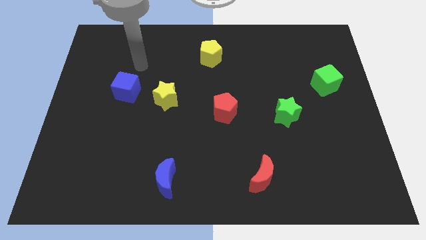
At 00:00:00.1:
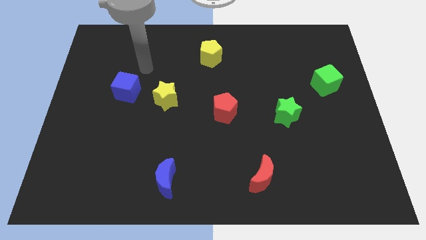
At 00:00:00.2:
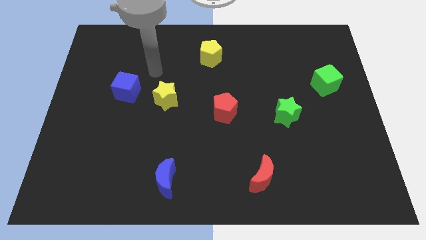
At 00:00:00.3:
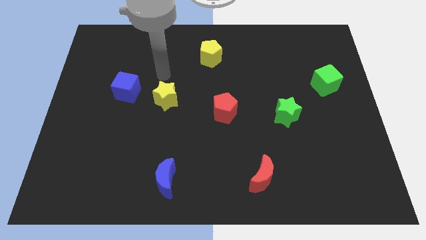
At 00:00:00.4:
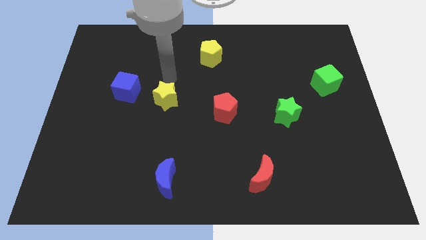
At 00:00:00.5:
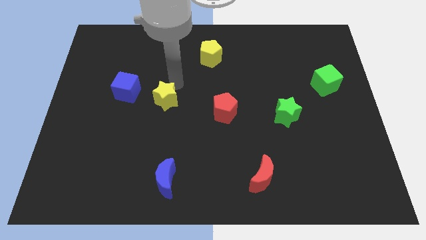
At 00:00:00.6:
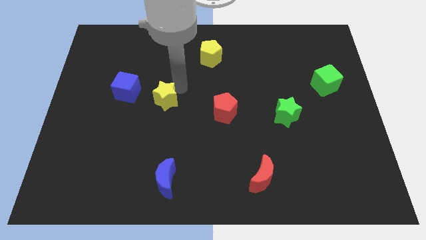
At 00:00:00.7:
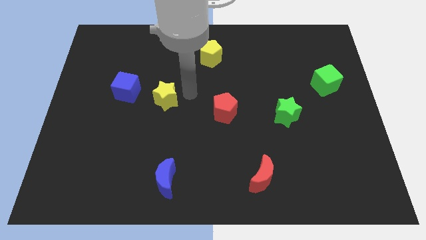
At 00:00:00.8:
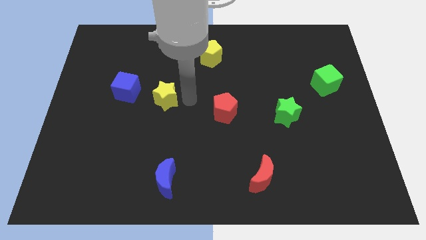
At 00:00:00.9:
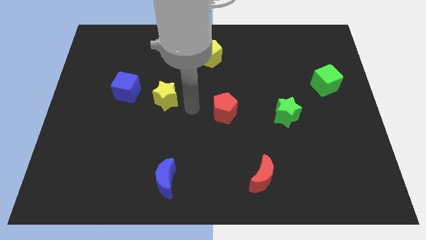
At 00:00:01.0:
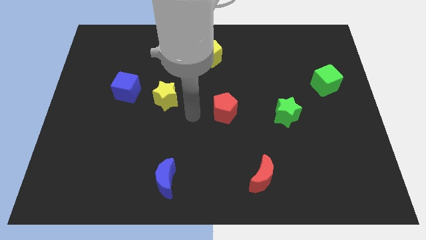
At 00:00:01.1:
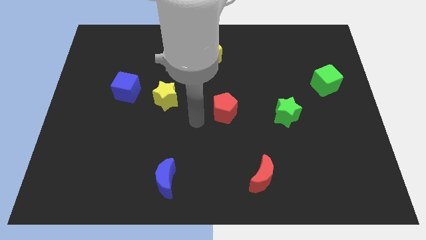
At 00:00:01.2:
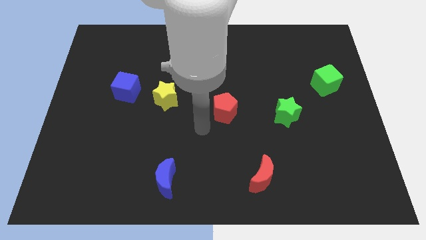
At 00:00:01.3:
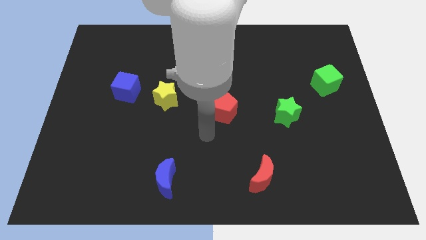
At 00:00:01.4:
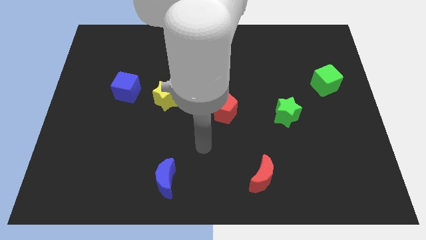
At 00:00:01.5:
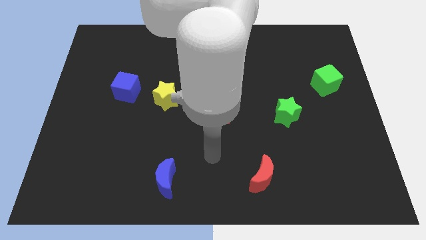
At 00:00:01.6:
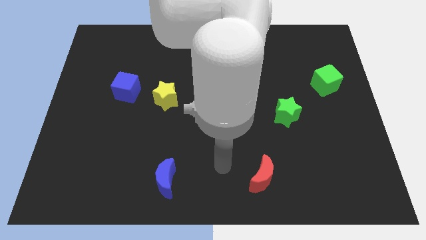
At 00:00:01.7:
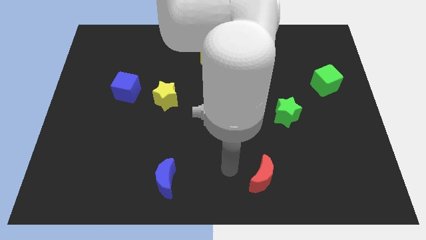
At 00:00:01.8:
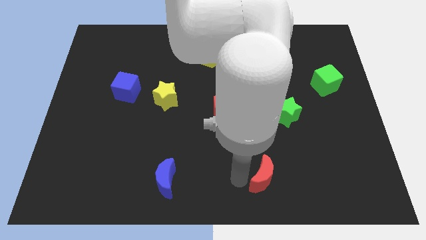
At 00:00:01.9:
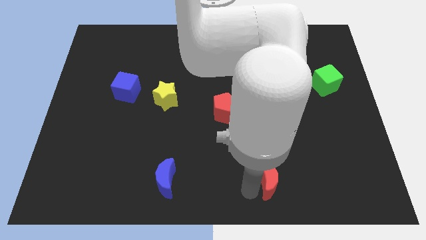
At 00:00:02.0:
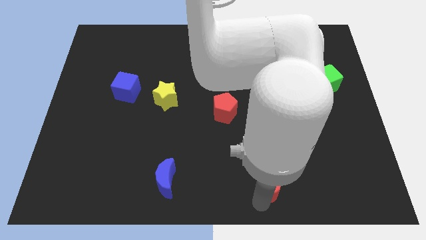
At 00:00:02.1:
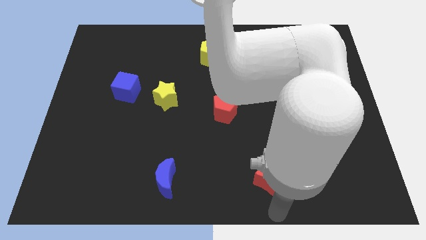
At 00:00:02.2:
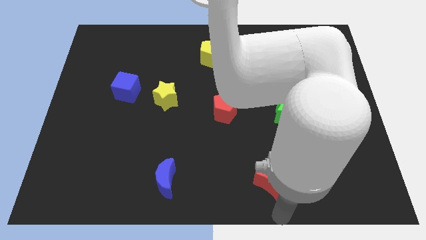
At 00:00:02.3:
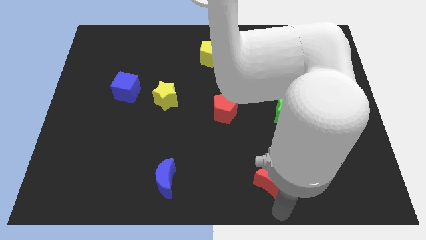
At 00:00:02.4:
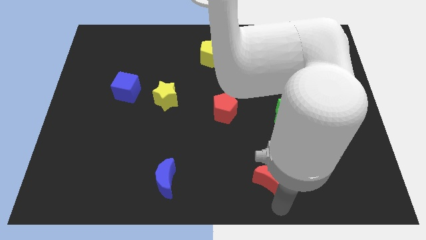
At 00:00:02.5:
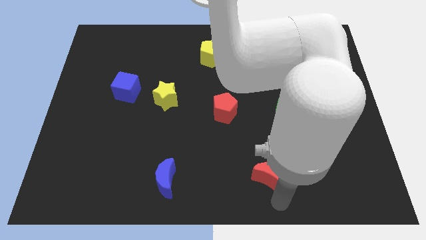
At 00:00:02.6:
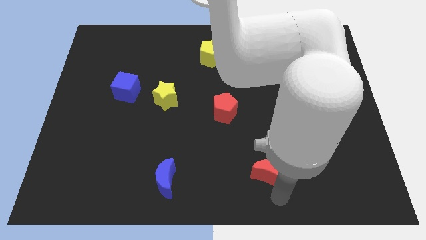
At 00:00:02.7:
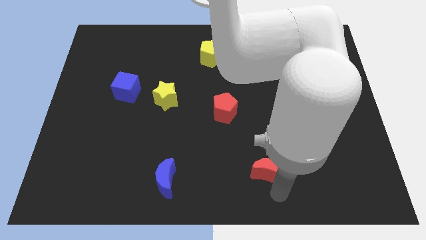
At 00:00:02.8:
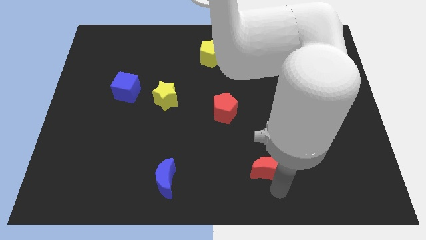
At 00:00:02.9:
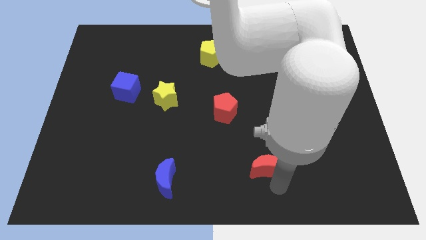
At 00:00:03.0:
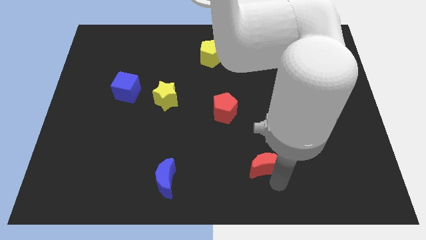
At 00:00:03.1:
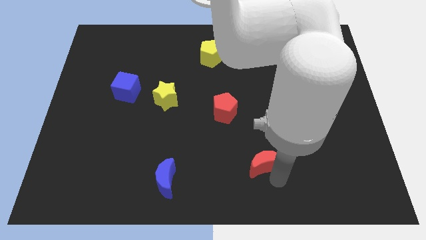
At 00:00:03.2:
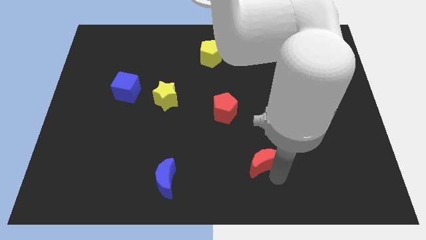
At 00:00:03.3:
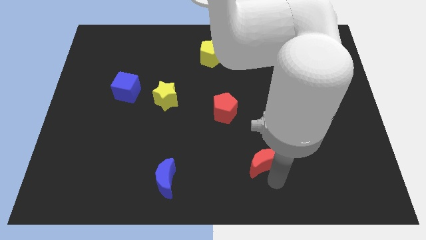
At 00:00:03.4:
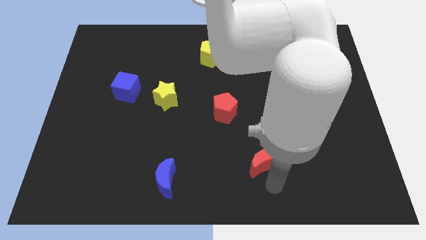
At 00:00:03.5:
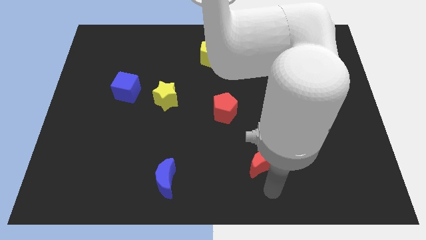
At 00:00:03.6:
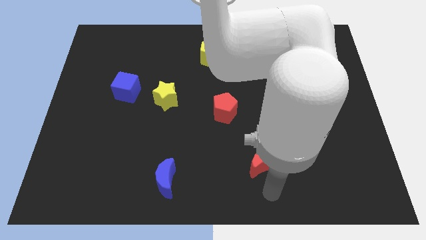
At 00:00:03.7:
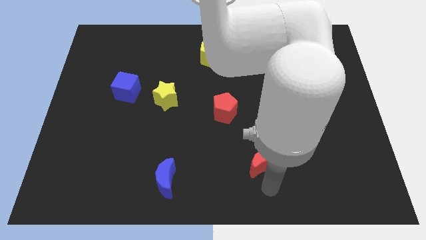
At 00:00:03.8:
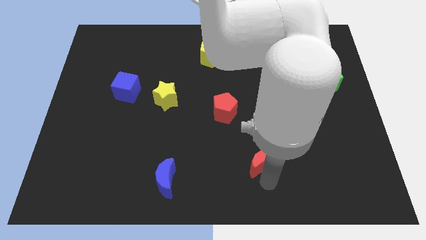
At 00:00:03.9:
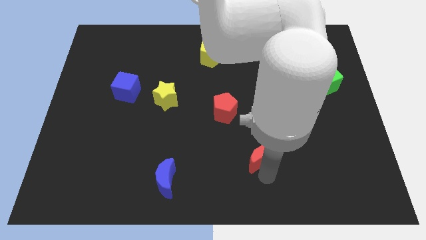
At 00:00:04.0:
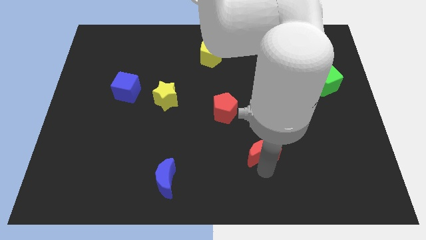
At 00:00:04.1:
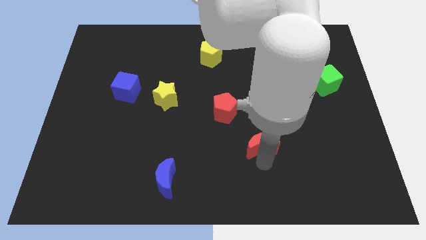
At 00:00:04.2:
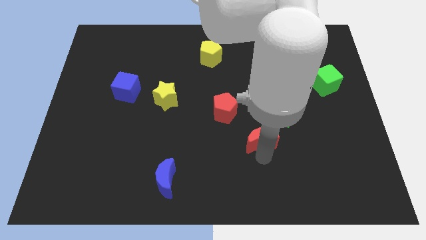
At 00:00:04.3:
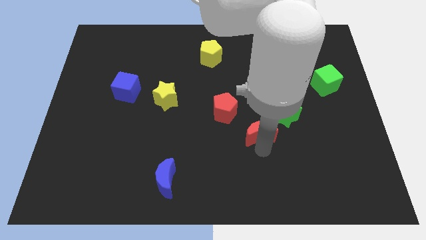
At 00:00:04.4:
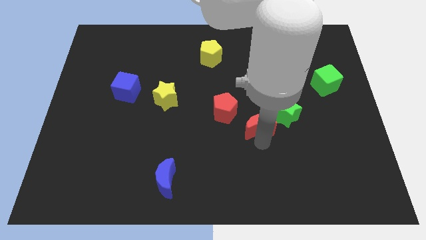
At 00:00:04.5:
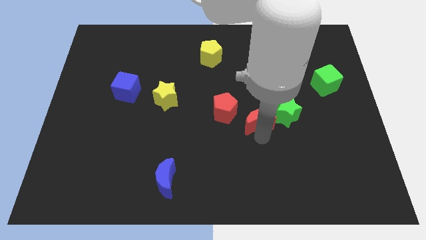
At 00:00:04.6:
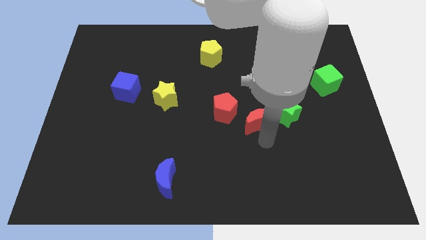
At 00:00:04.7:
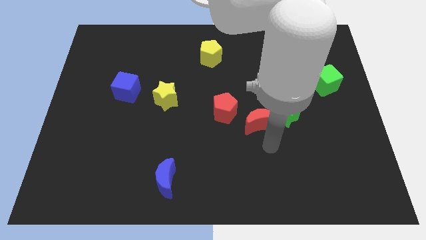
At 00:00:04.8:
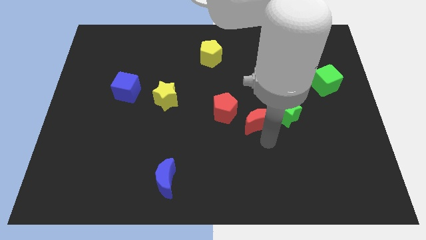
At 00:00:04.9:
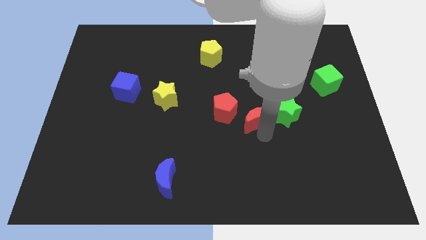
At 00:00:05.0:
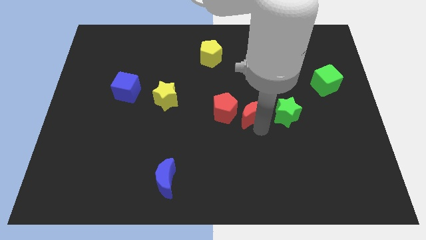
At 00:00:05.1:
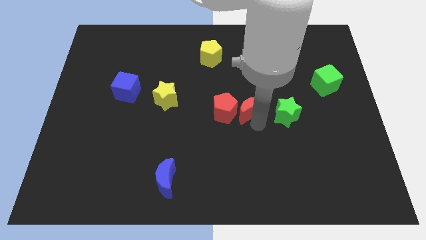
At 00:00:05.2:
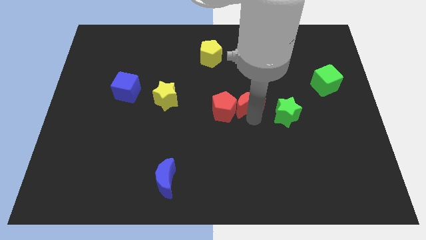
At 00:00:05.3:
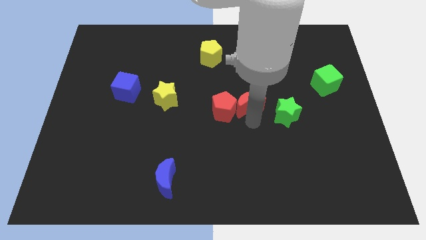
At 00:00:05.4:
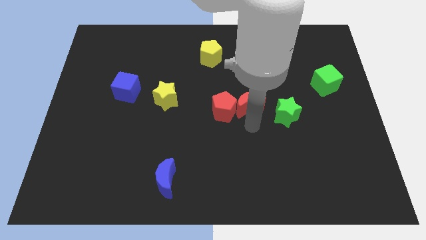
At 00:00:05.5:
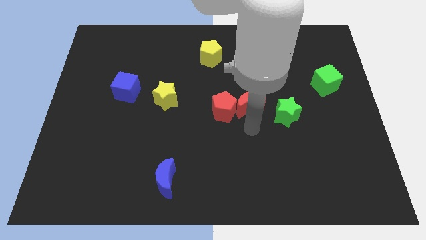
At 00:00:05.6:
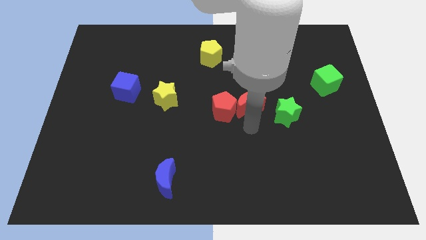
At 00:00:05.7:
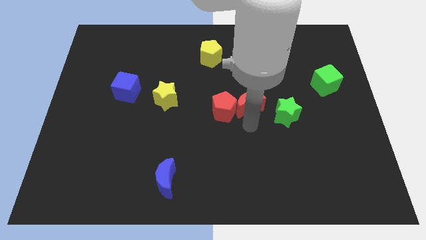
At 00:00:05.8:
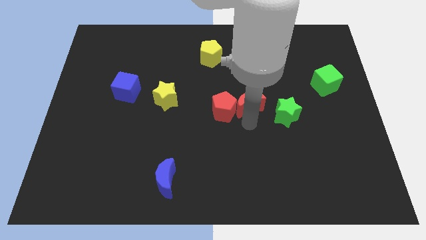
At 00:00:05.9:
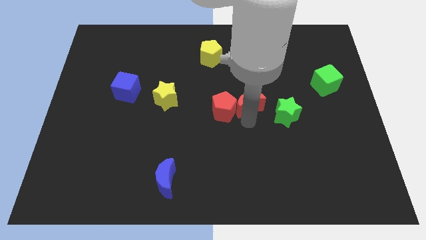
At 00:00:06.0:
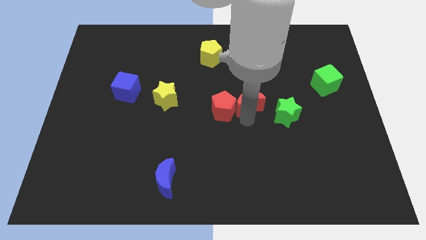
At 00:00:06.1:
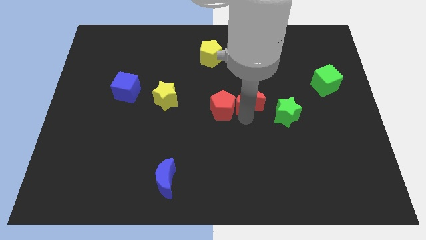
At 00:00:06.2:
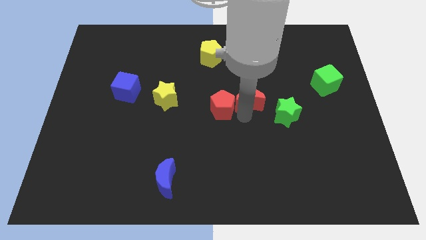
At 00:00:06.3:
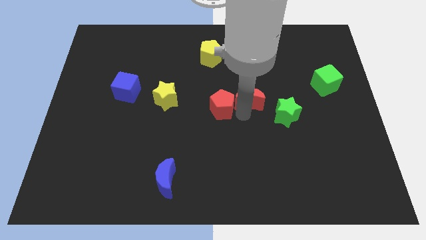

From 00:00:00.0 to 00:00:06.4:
move the red moon upwards

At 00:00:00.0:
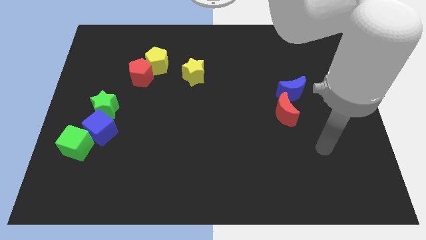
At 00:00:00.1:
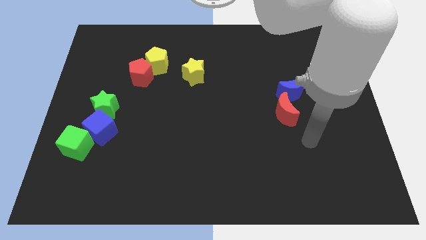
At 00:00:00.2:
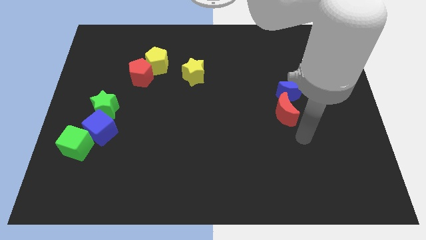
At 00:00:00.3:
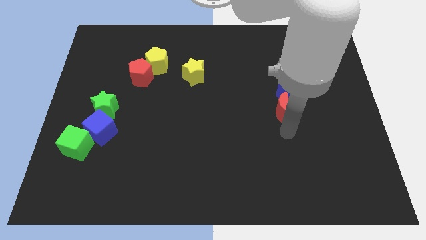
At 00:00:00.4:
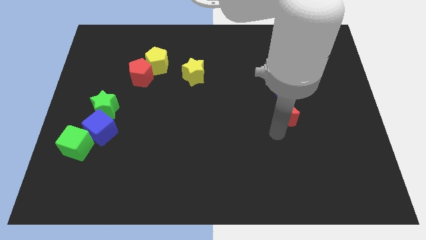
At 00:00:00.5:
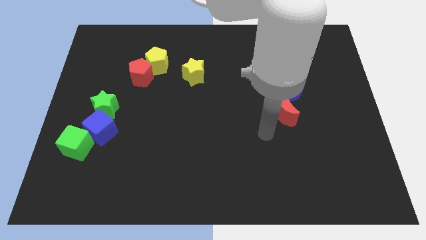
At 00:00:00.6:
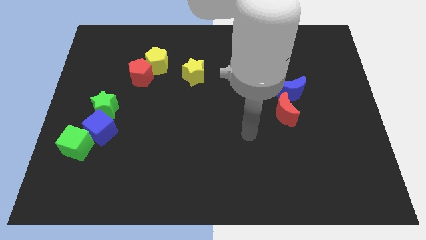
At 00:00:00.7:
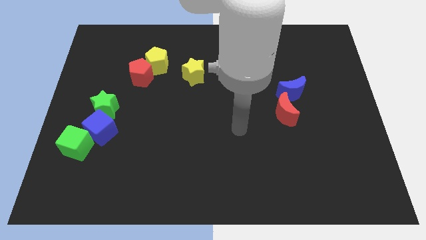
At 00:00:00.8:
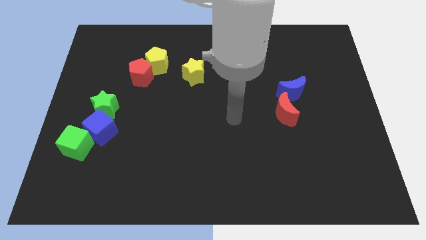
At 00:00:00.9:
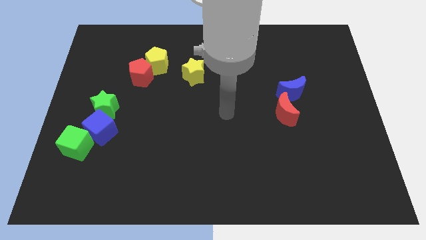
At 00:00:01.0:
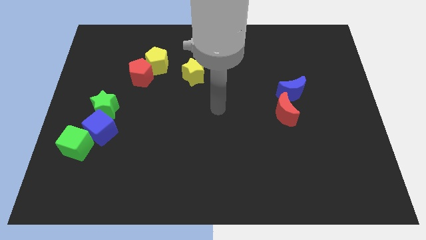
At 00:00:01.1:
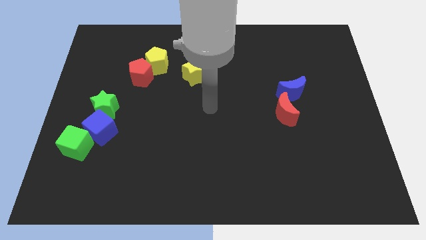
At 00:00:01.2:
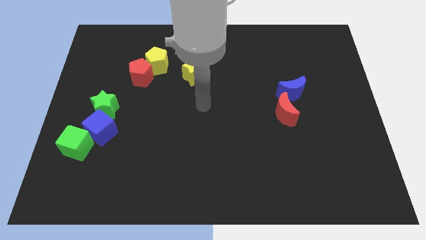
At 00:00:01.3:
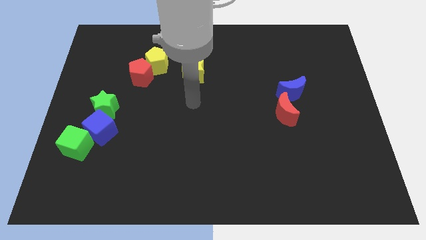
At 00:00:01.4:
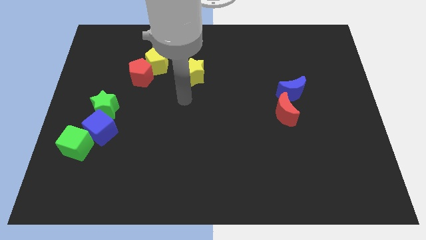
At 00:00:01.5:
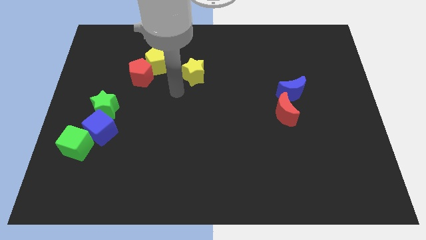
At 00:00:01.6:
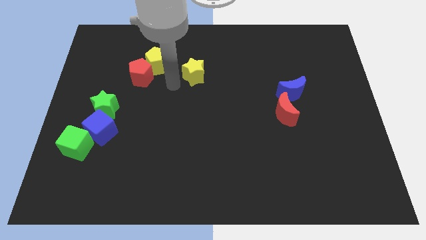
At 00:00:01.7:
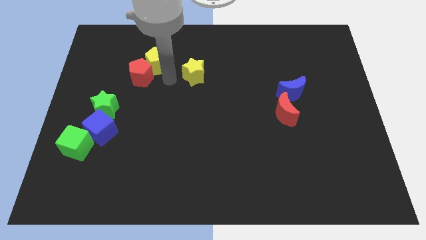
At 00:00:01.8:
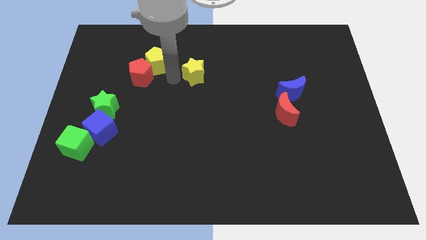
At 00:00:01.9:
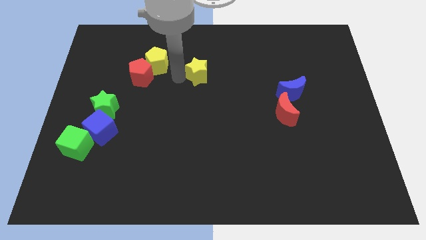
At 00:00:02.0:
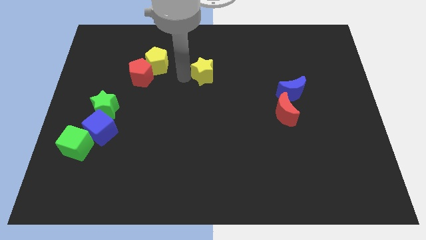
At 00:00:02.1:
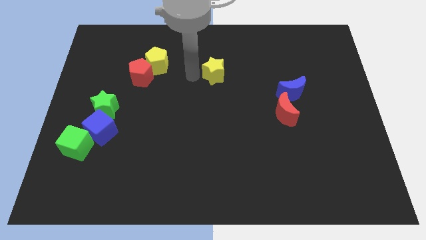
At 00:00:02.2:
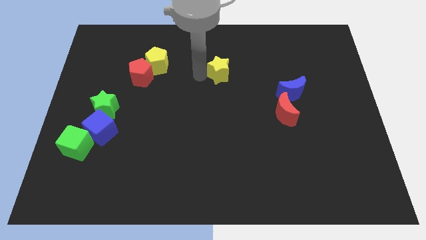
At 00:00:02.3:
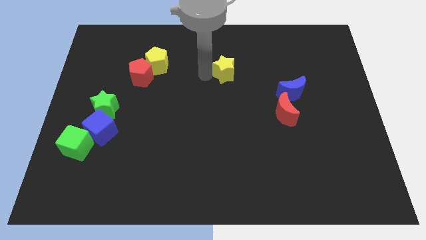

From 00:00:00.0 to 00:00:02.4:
slightly move the yellow star right
